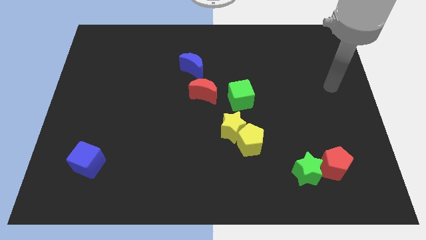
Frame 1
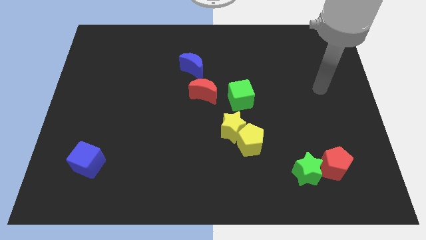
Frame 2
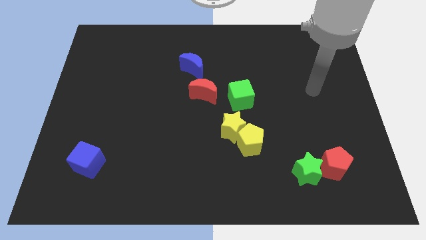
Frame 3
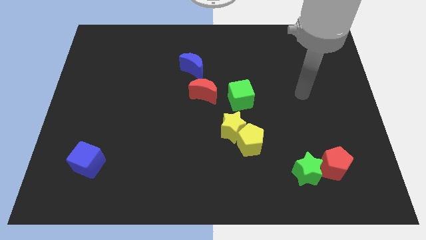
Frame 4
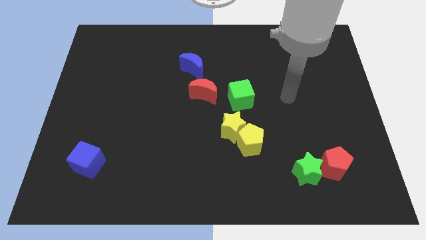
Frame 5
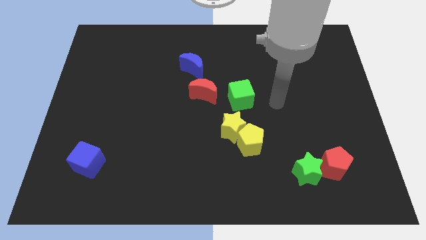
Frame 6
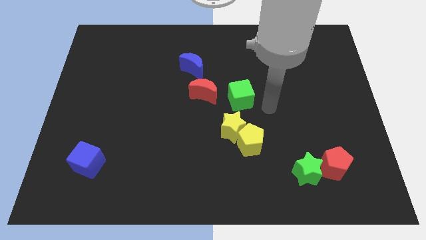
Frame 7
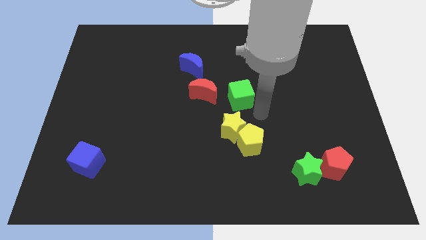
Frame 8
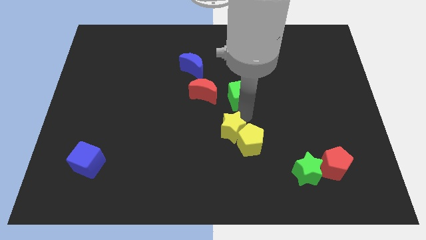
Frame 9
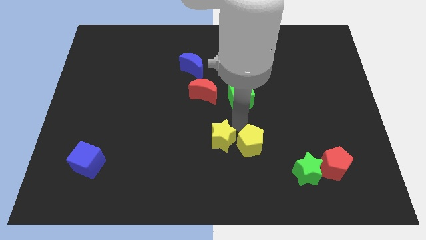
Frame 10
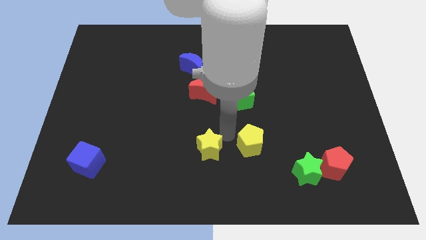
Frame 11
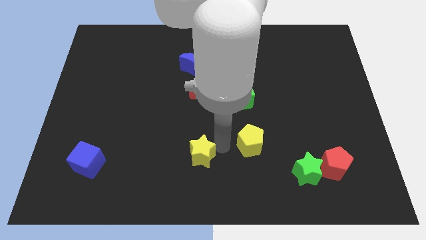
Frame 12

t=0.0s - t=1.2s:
pull the yellow pentagon apart from the yellow star

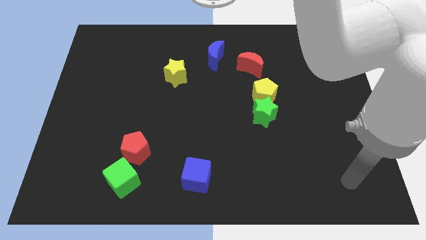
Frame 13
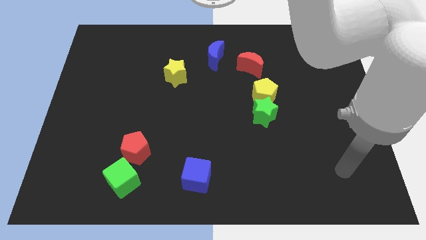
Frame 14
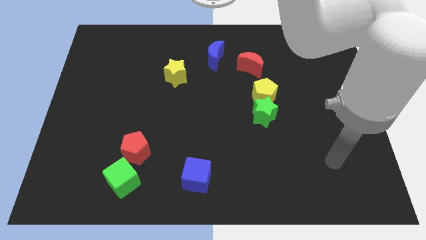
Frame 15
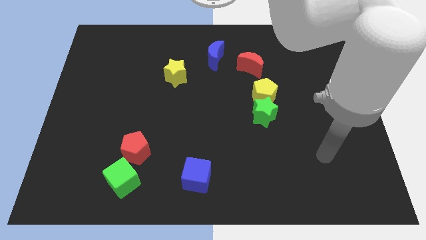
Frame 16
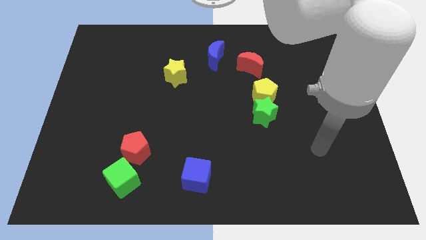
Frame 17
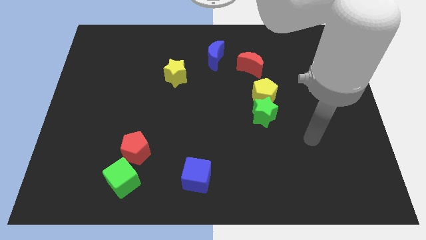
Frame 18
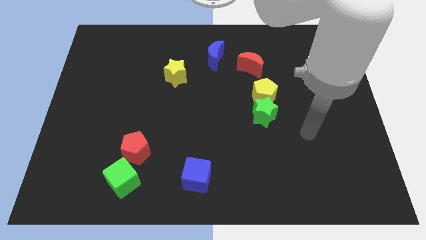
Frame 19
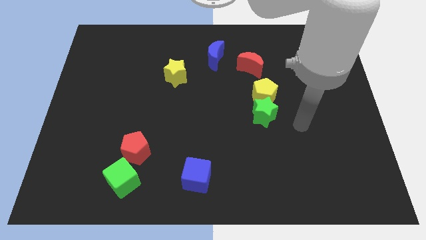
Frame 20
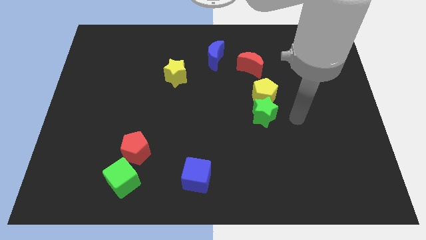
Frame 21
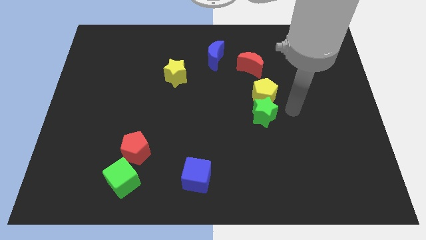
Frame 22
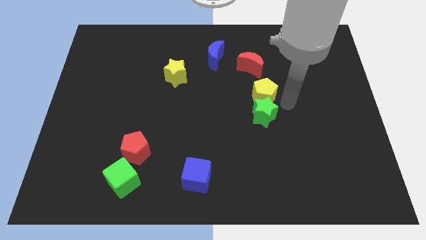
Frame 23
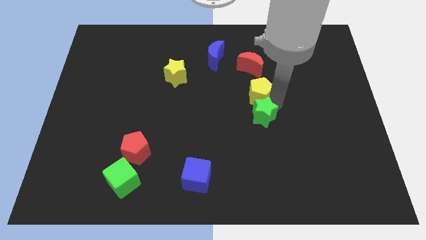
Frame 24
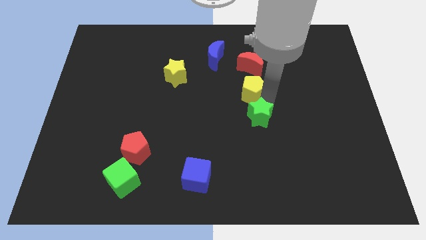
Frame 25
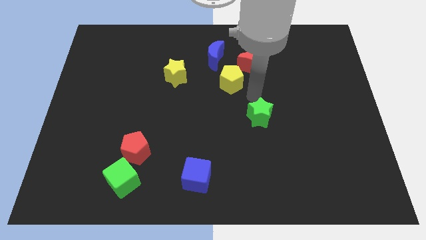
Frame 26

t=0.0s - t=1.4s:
move the green star away from the yellow pentagon

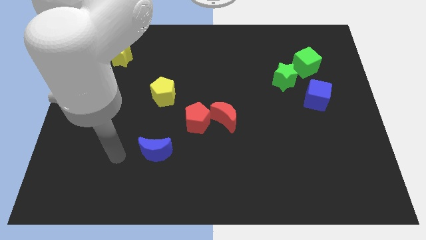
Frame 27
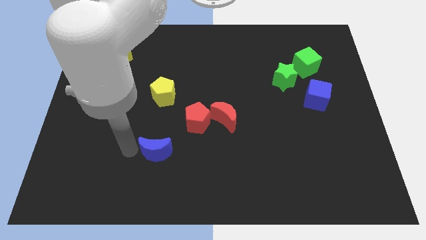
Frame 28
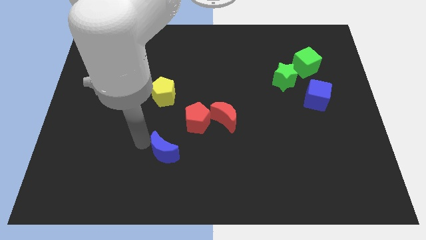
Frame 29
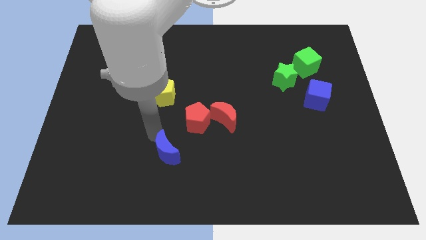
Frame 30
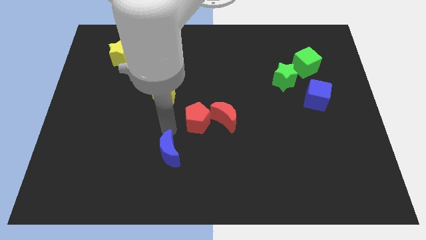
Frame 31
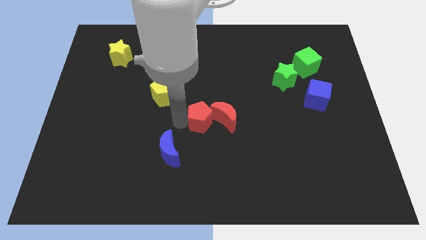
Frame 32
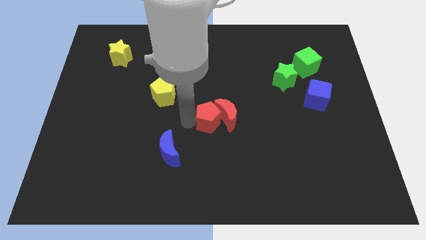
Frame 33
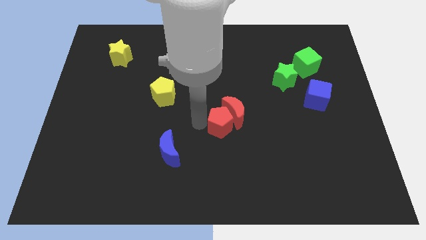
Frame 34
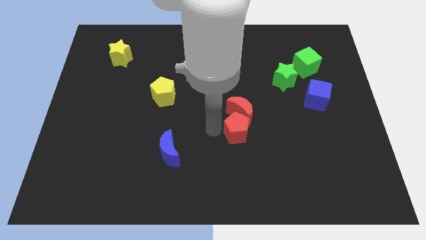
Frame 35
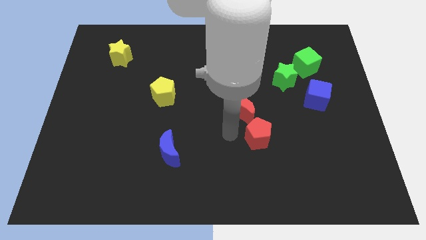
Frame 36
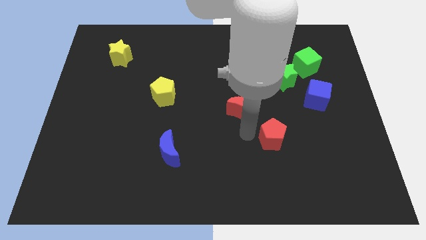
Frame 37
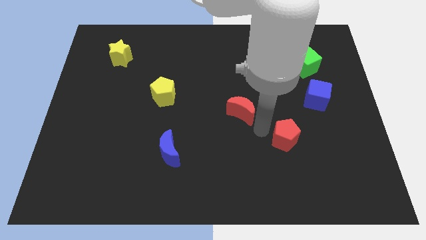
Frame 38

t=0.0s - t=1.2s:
pull the red moon apart from the red pentagon

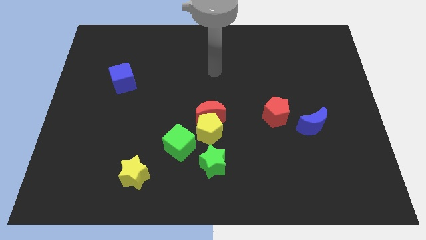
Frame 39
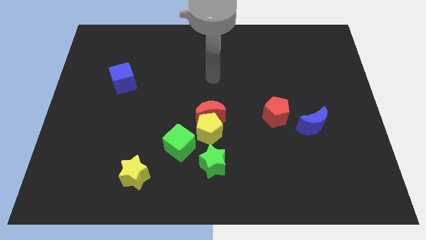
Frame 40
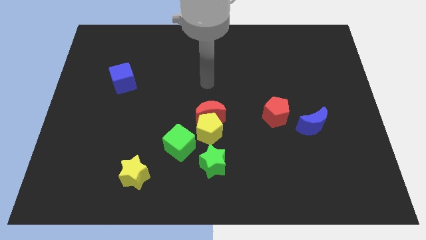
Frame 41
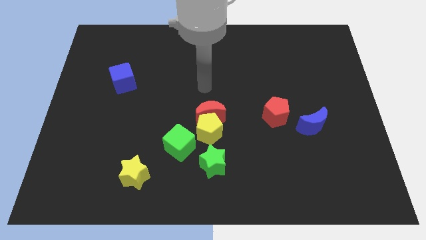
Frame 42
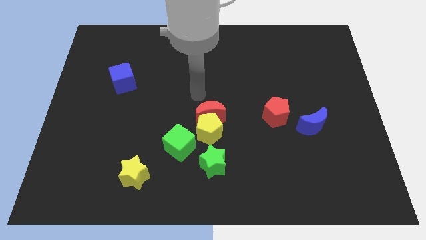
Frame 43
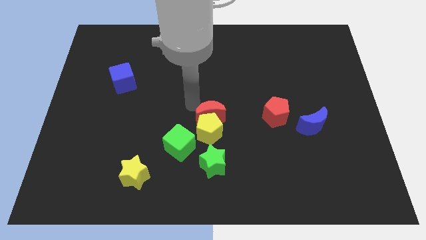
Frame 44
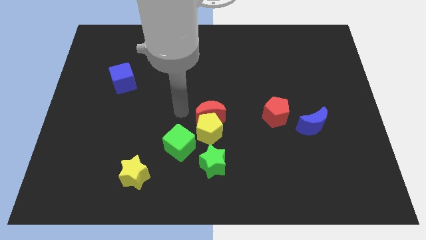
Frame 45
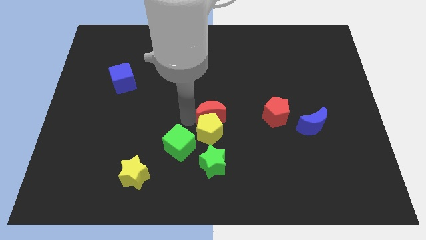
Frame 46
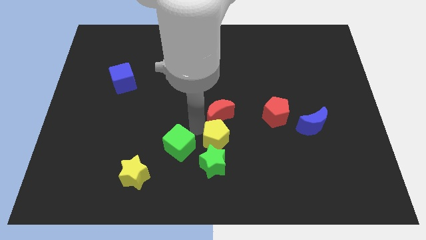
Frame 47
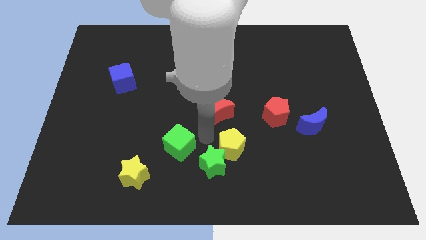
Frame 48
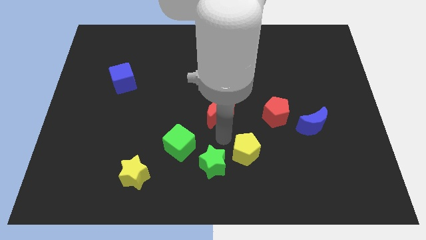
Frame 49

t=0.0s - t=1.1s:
move the red moon away from the yellow pentagon

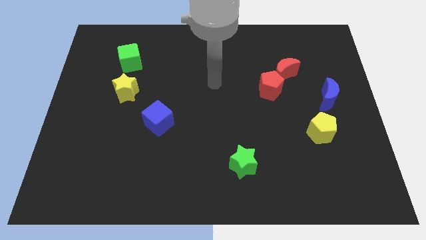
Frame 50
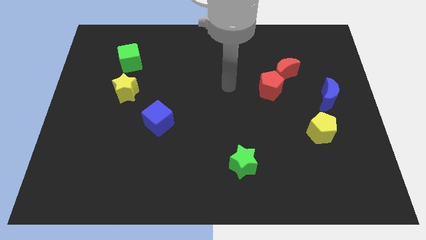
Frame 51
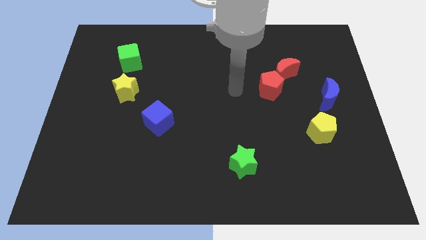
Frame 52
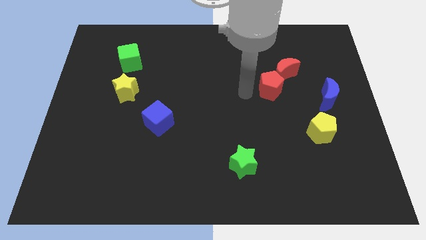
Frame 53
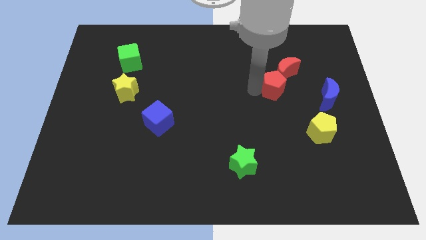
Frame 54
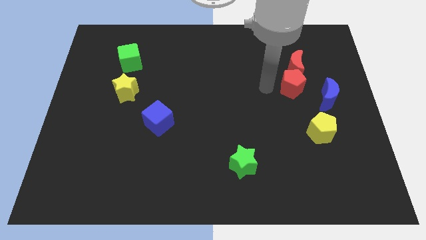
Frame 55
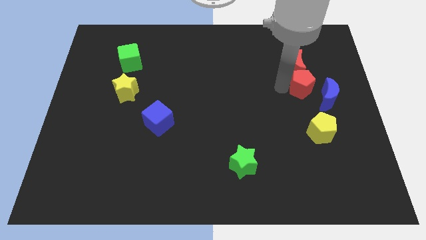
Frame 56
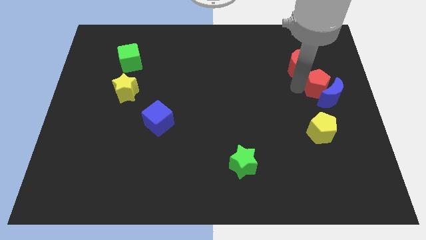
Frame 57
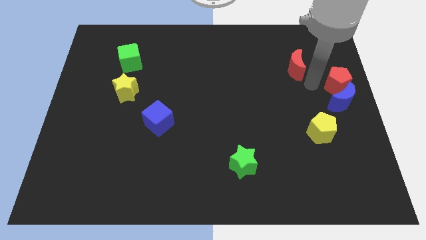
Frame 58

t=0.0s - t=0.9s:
separate the red moon from the red pentagon

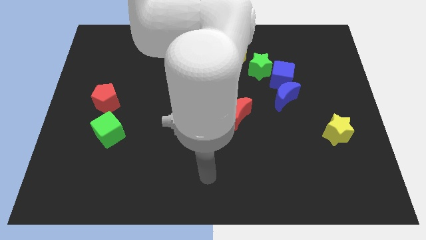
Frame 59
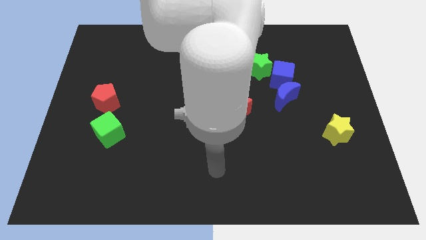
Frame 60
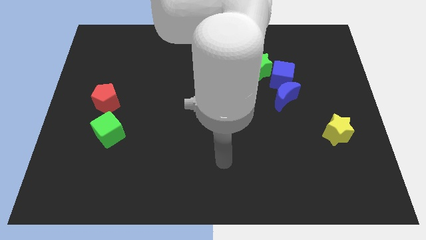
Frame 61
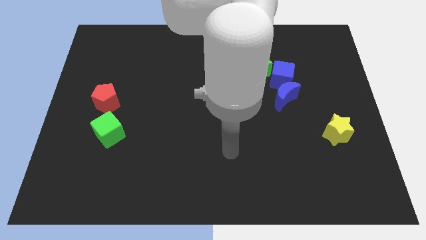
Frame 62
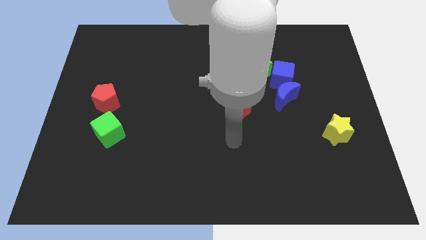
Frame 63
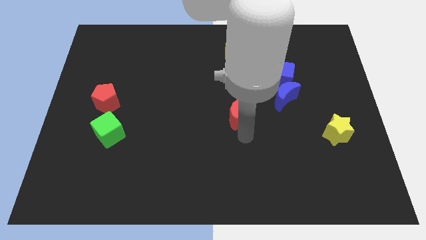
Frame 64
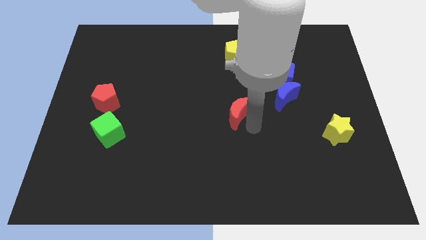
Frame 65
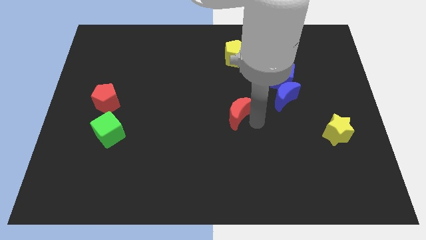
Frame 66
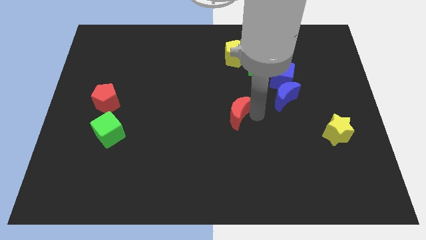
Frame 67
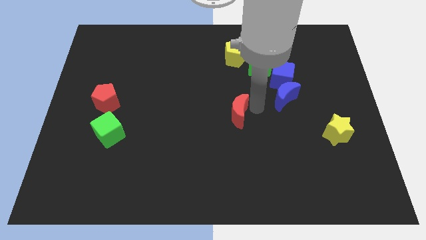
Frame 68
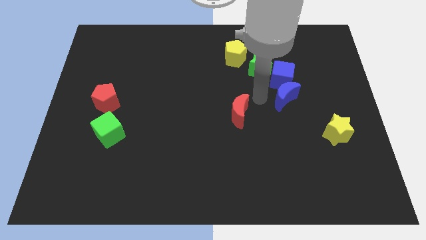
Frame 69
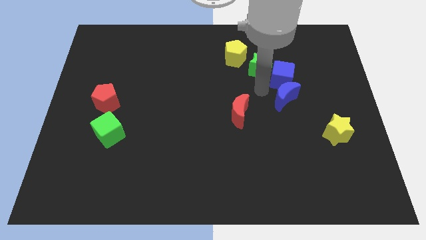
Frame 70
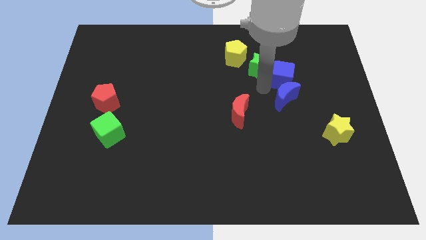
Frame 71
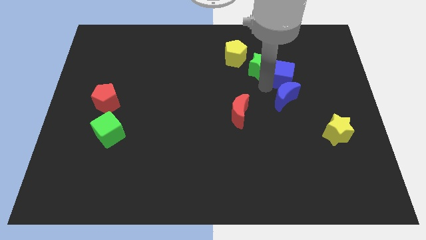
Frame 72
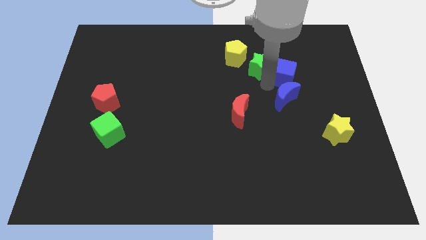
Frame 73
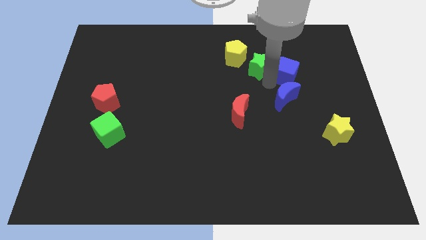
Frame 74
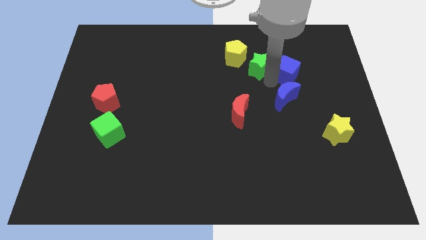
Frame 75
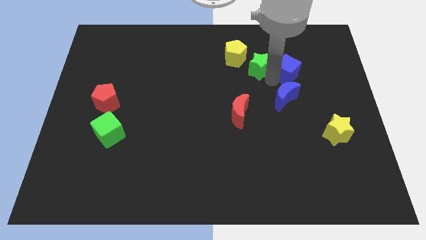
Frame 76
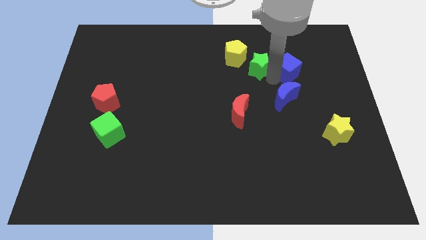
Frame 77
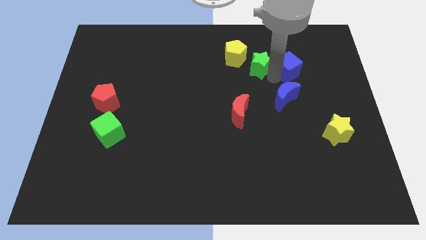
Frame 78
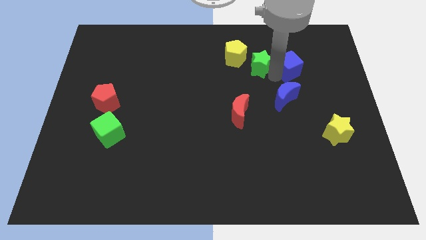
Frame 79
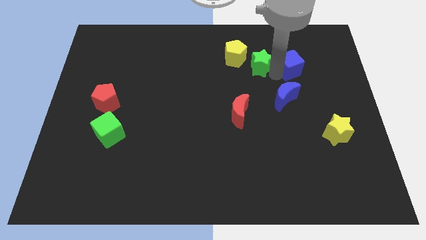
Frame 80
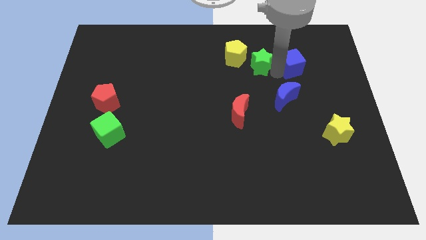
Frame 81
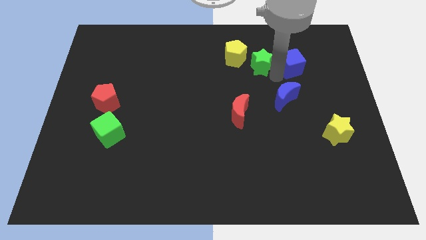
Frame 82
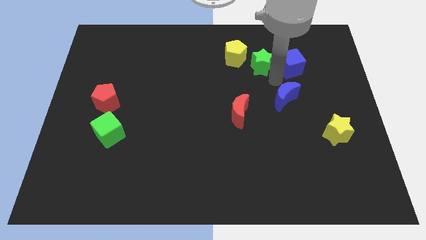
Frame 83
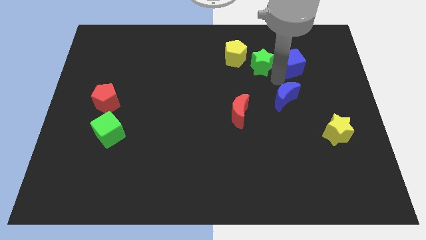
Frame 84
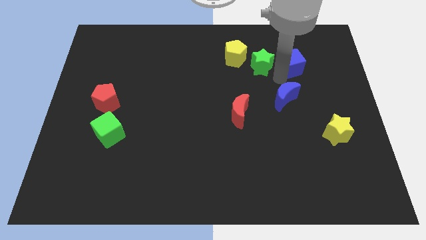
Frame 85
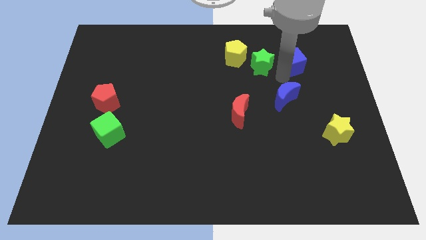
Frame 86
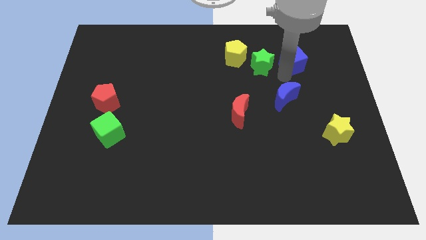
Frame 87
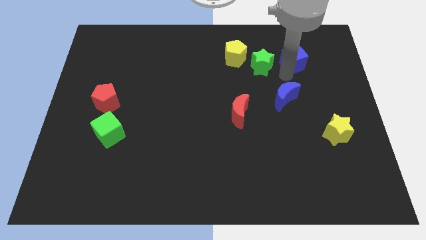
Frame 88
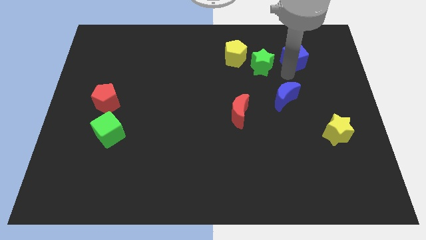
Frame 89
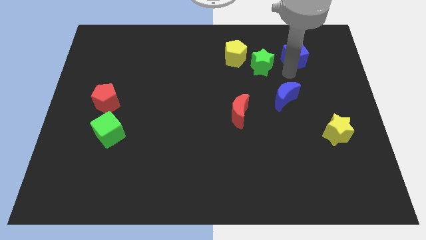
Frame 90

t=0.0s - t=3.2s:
move the blue cube away from the green star and blue moon

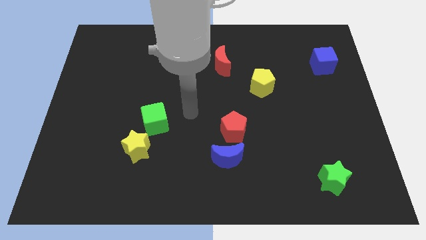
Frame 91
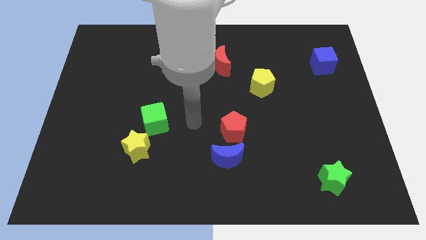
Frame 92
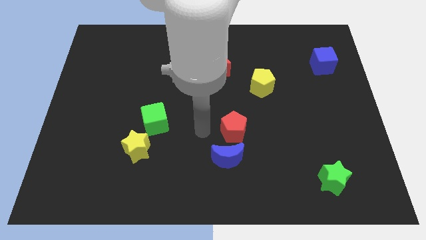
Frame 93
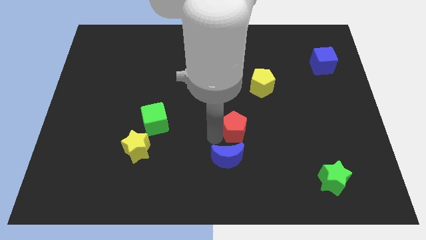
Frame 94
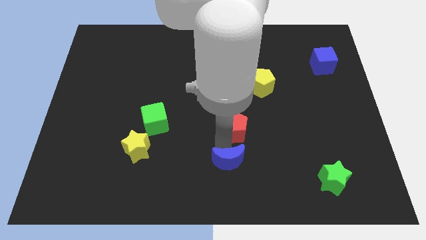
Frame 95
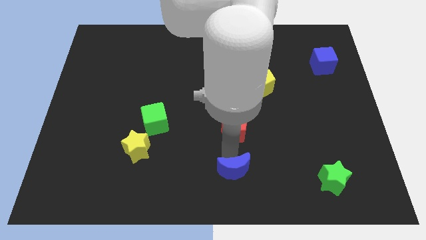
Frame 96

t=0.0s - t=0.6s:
pull the red pentagon apart from the blue moon
